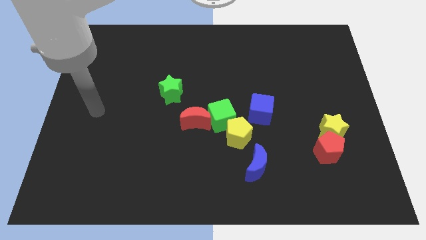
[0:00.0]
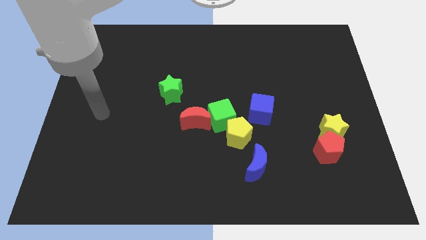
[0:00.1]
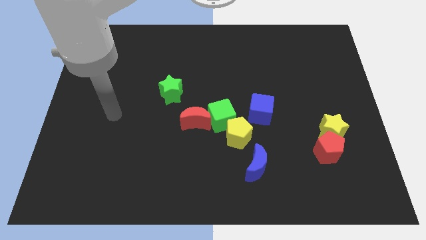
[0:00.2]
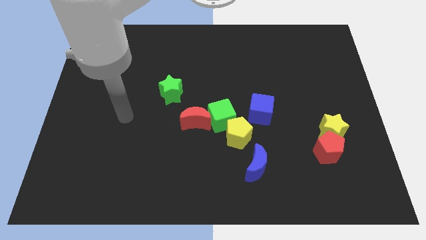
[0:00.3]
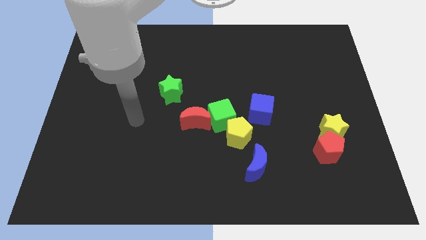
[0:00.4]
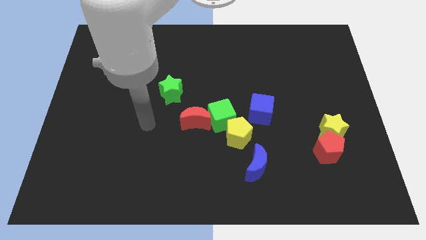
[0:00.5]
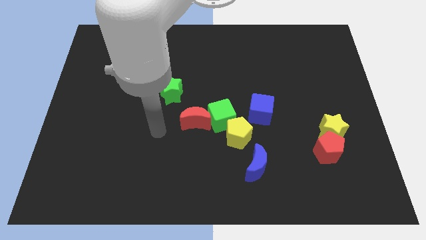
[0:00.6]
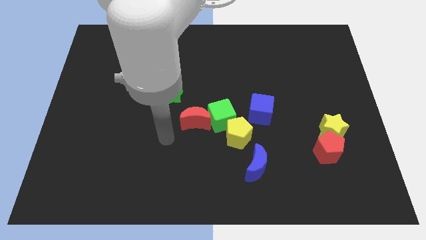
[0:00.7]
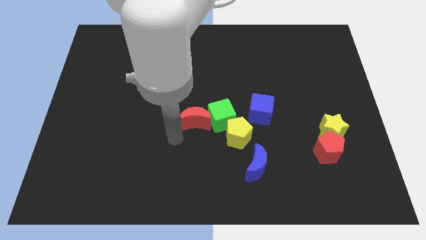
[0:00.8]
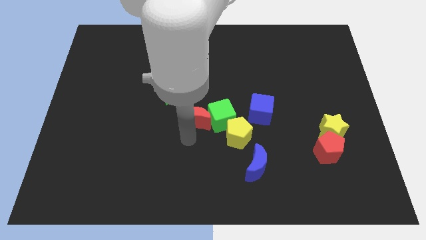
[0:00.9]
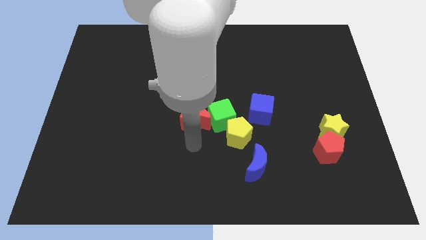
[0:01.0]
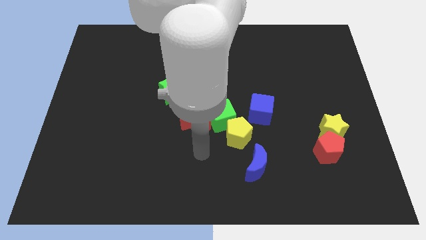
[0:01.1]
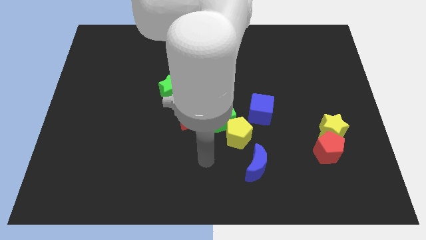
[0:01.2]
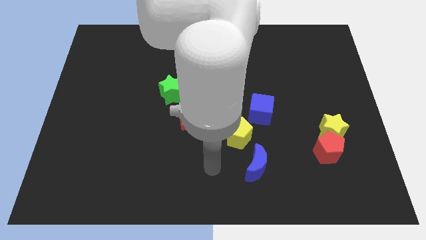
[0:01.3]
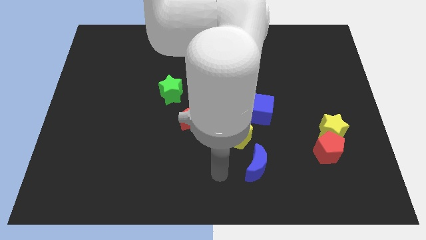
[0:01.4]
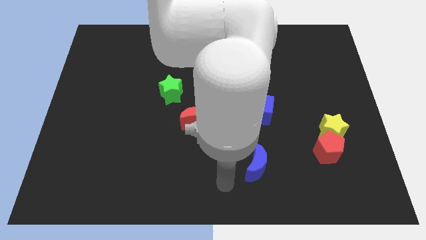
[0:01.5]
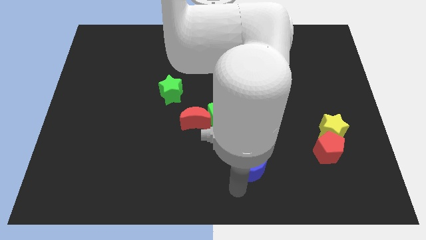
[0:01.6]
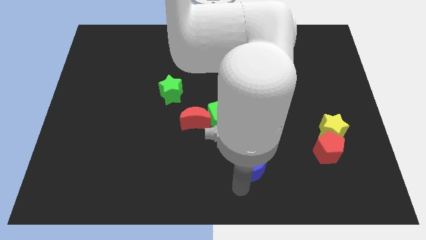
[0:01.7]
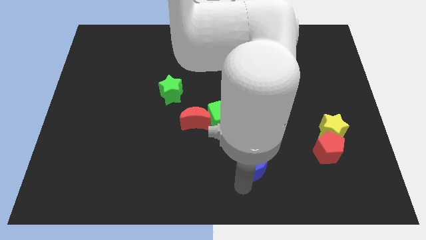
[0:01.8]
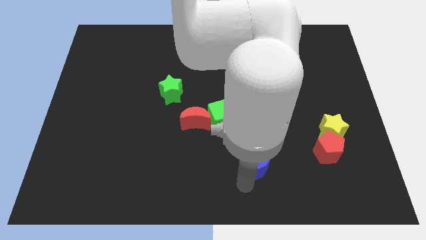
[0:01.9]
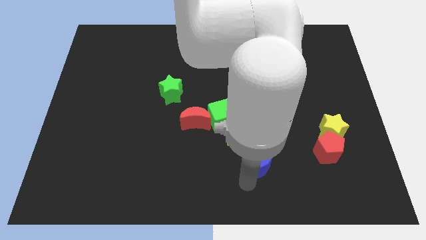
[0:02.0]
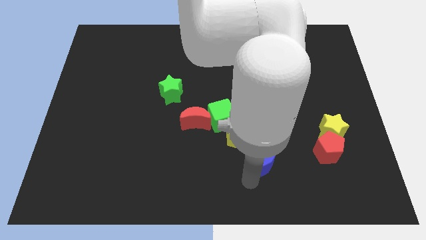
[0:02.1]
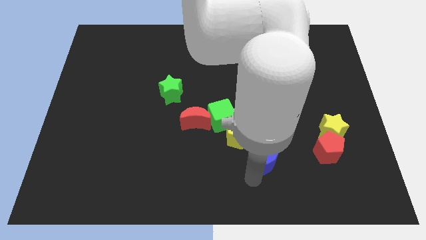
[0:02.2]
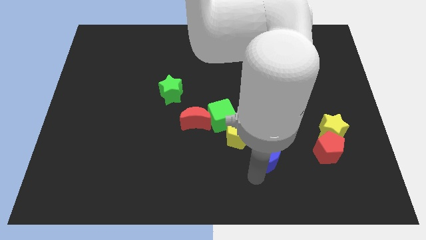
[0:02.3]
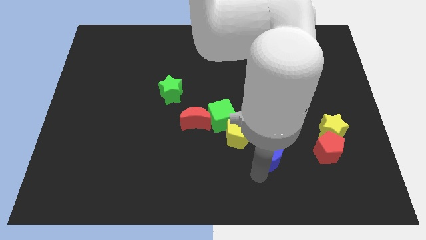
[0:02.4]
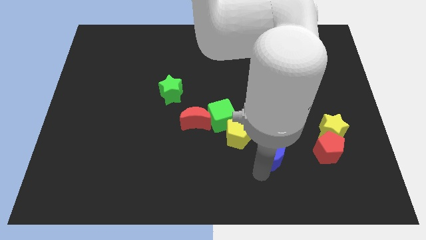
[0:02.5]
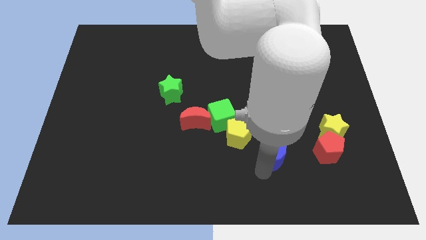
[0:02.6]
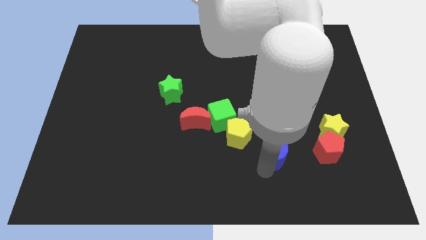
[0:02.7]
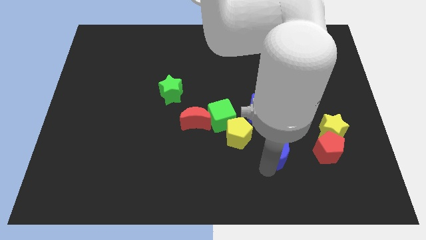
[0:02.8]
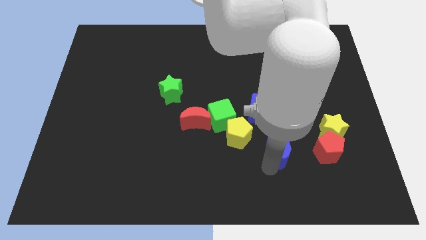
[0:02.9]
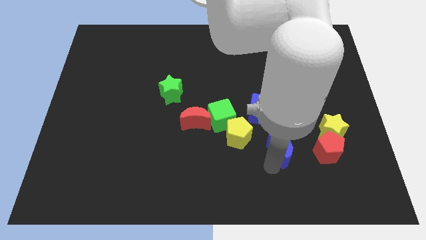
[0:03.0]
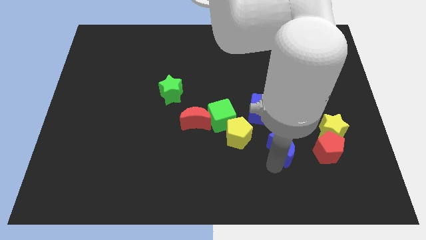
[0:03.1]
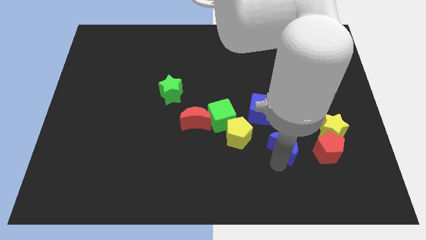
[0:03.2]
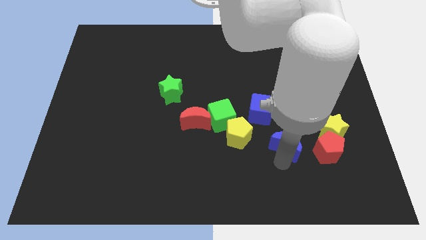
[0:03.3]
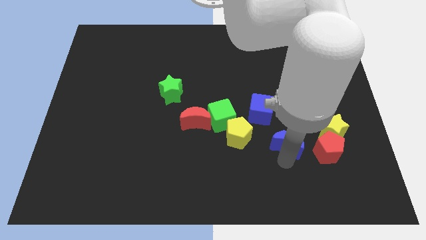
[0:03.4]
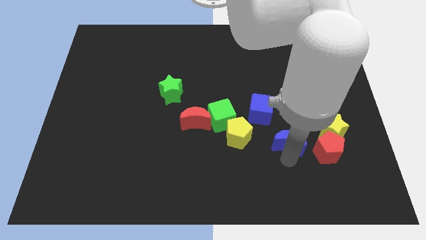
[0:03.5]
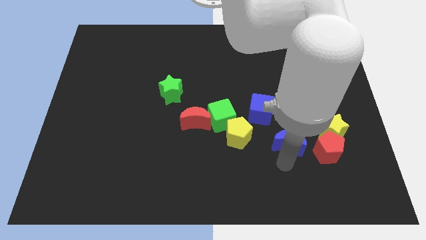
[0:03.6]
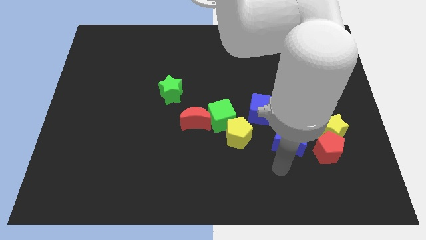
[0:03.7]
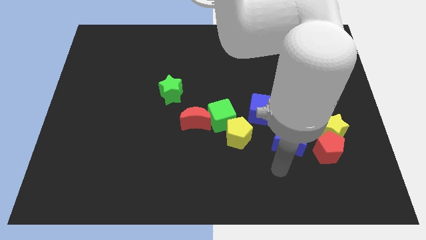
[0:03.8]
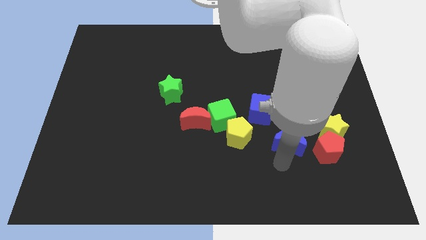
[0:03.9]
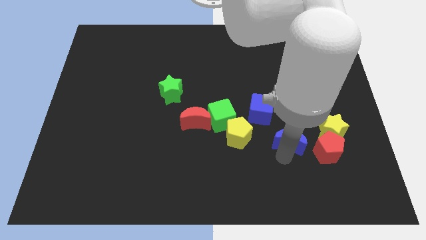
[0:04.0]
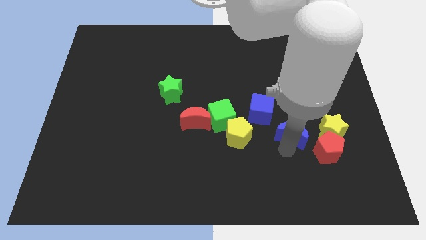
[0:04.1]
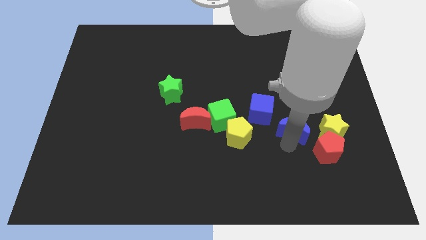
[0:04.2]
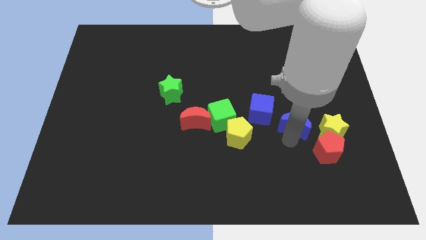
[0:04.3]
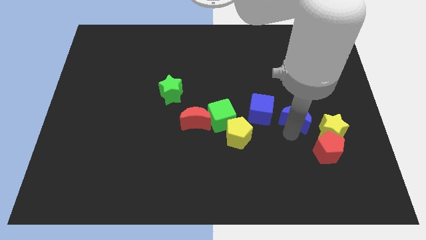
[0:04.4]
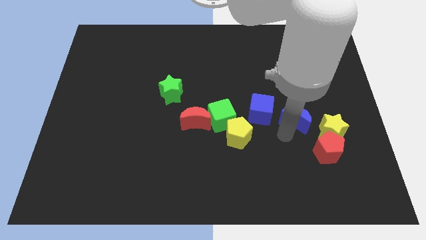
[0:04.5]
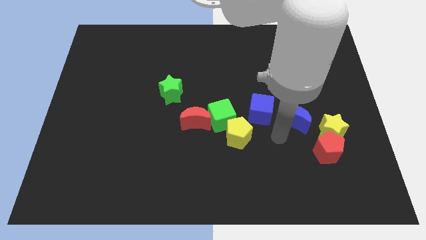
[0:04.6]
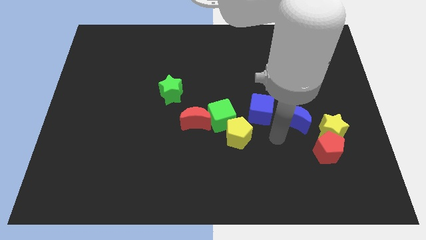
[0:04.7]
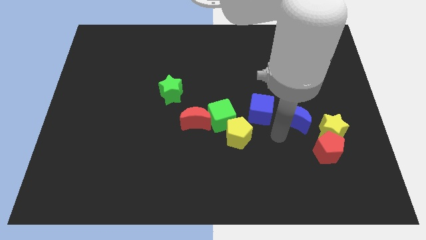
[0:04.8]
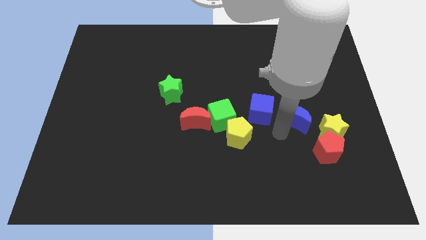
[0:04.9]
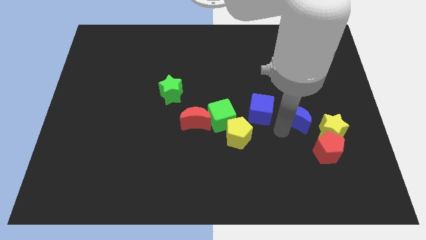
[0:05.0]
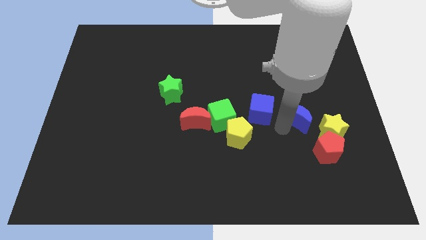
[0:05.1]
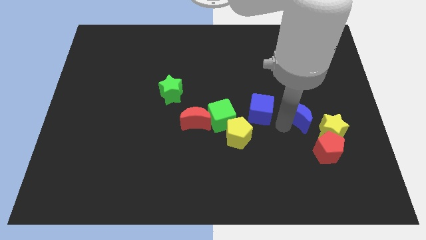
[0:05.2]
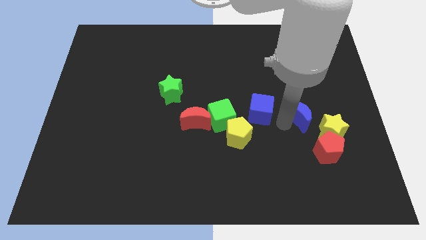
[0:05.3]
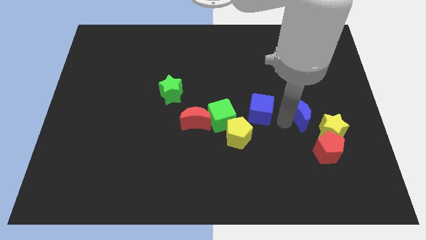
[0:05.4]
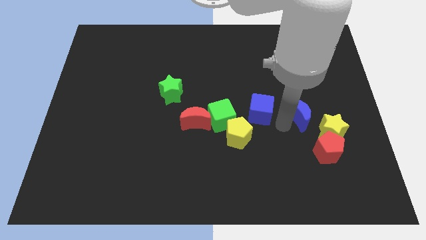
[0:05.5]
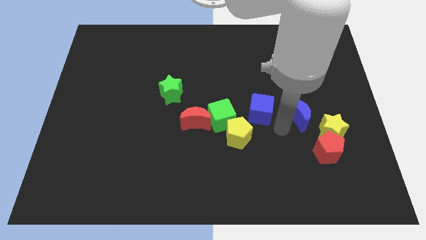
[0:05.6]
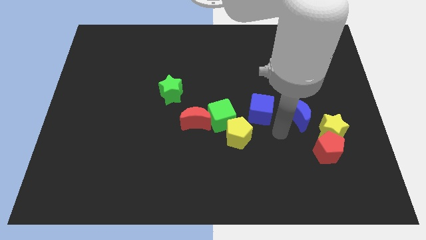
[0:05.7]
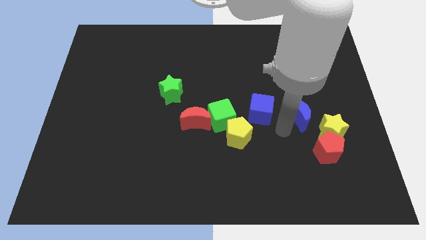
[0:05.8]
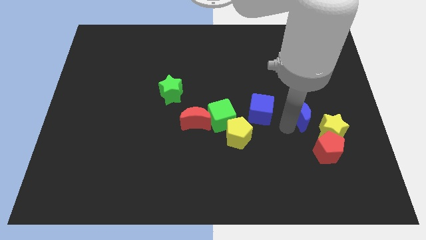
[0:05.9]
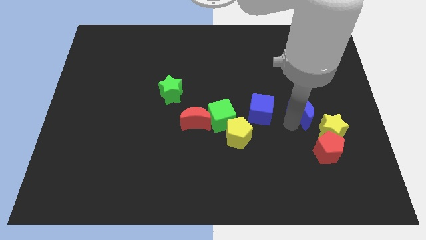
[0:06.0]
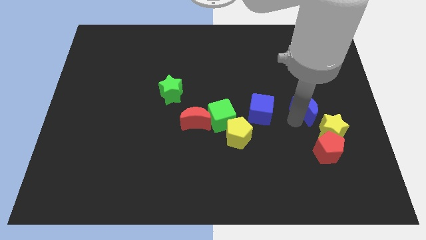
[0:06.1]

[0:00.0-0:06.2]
put the blue moon to the top side of the yellow star

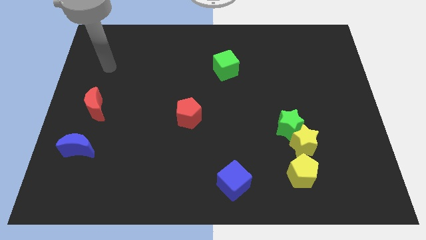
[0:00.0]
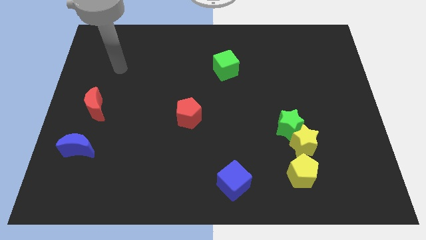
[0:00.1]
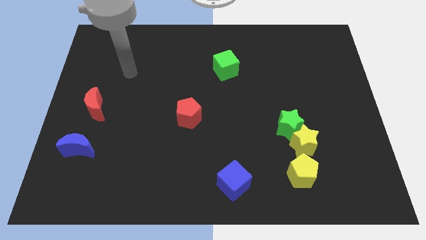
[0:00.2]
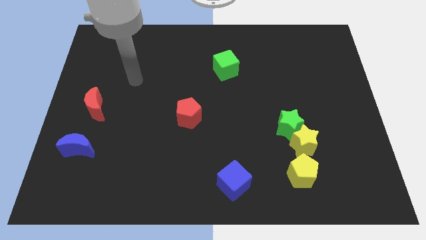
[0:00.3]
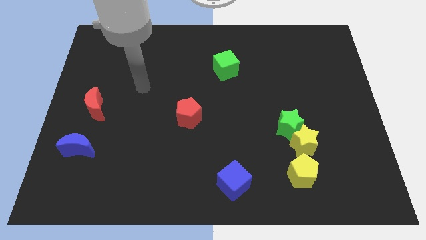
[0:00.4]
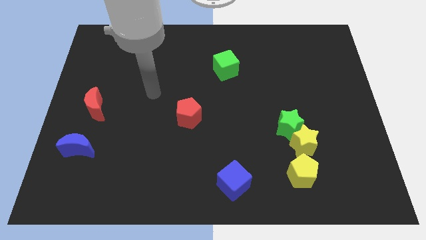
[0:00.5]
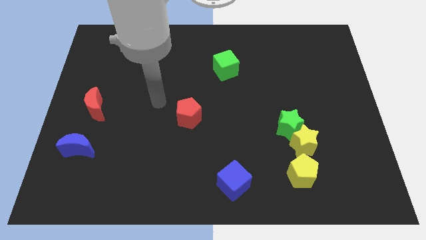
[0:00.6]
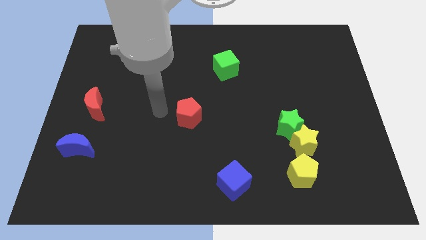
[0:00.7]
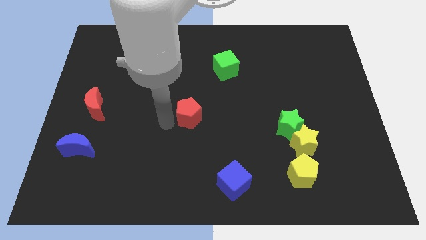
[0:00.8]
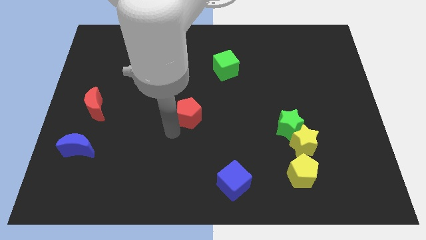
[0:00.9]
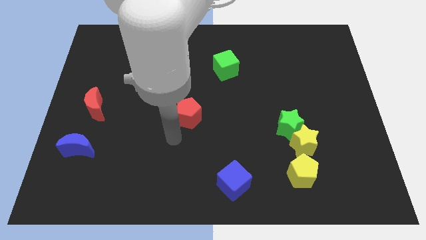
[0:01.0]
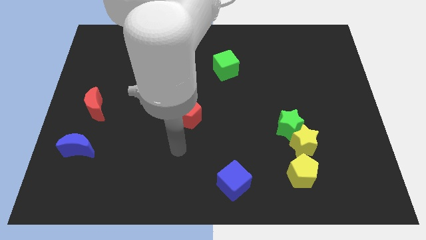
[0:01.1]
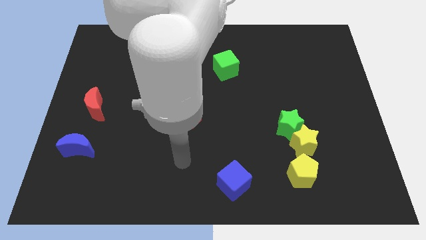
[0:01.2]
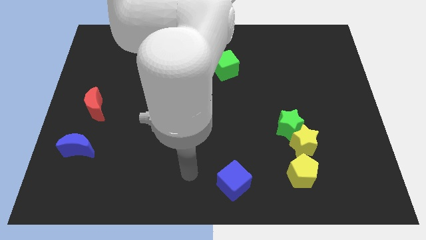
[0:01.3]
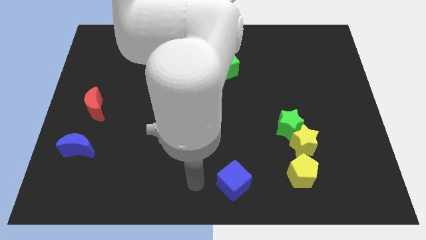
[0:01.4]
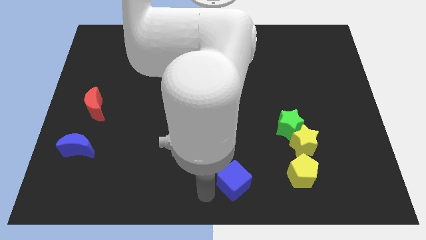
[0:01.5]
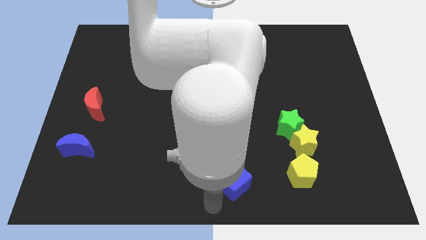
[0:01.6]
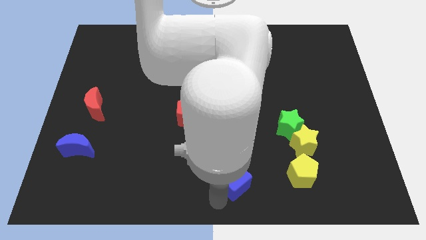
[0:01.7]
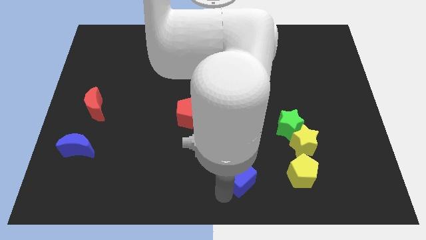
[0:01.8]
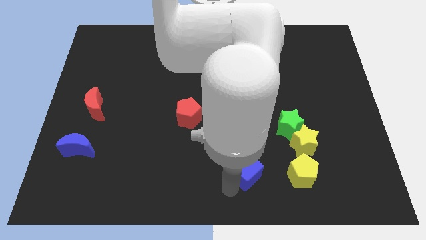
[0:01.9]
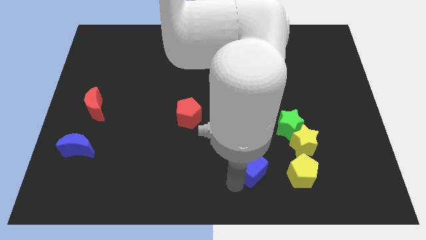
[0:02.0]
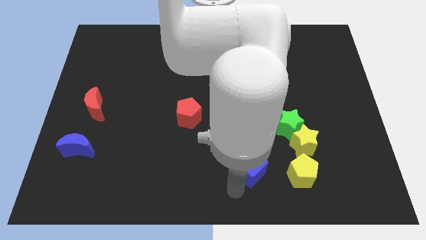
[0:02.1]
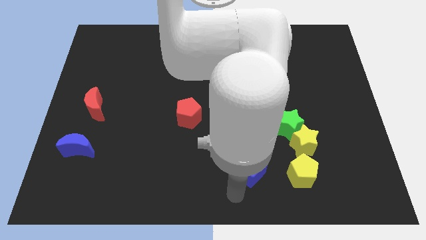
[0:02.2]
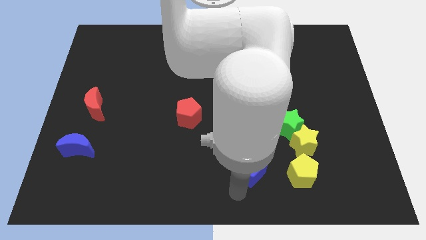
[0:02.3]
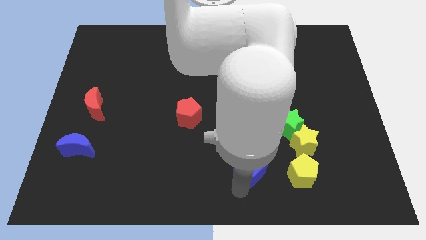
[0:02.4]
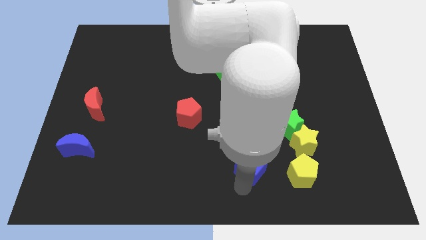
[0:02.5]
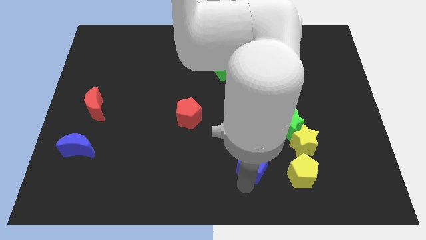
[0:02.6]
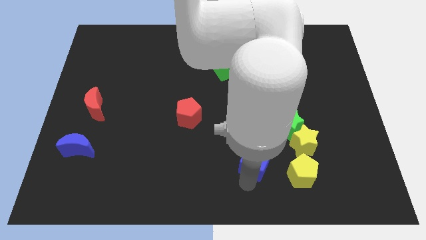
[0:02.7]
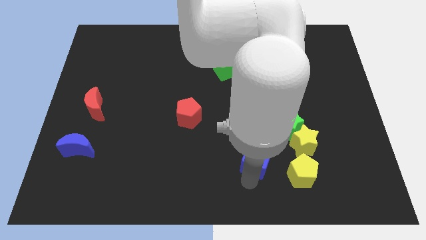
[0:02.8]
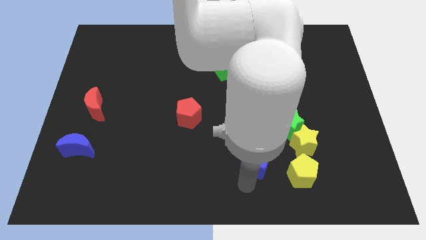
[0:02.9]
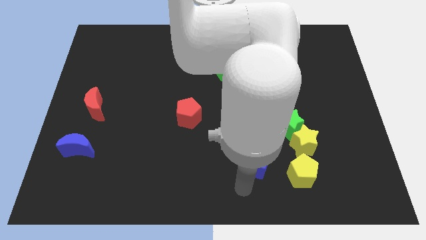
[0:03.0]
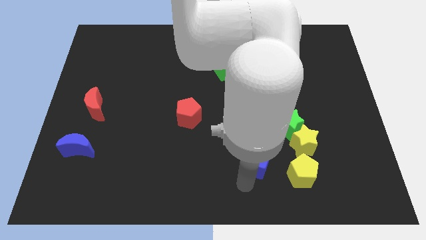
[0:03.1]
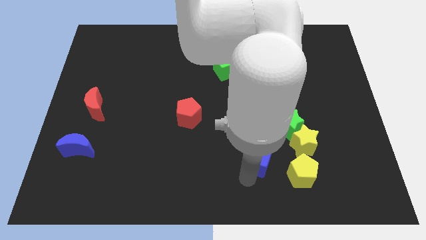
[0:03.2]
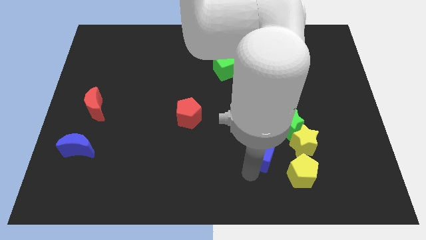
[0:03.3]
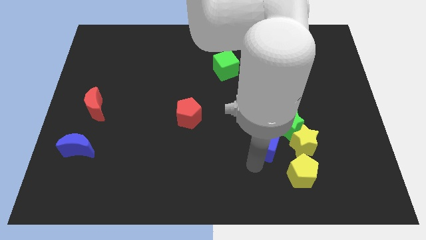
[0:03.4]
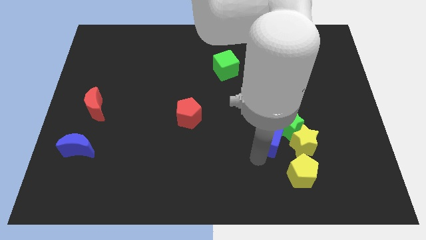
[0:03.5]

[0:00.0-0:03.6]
slide the blue cube to the top left side of the yellow star
